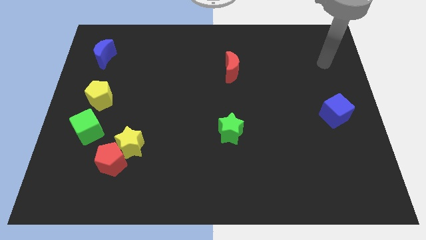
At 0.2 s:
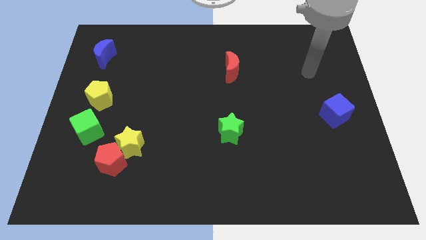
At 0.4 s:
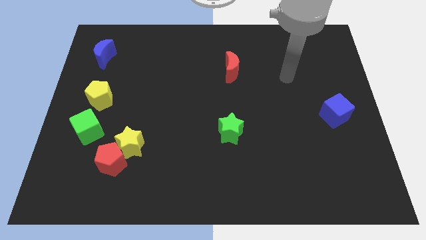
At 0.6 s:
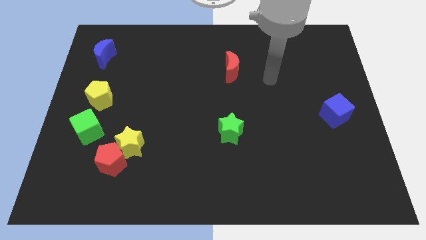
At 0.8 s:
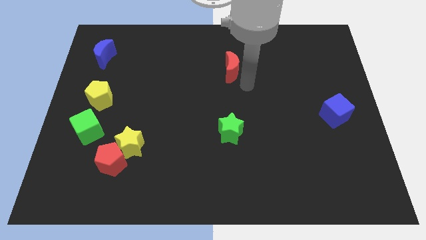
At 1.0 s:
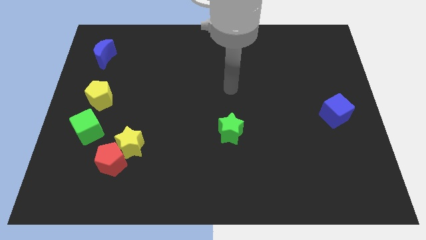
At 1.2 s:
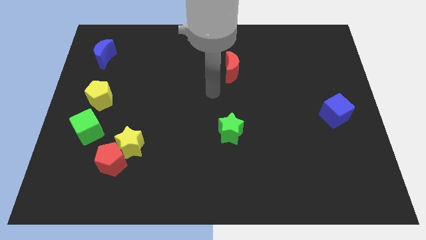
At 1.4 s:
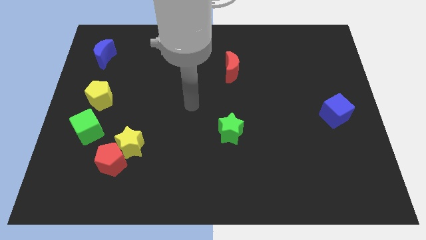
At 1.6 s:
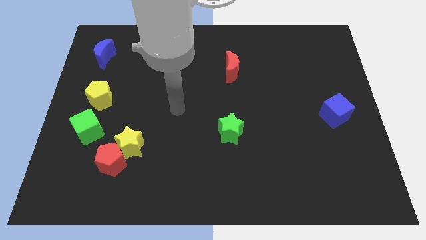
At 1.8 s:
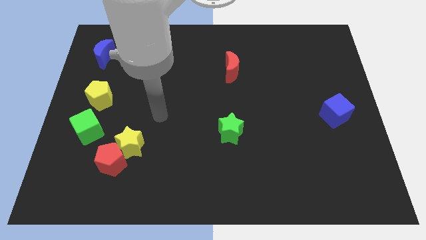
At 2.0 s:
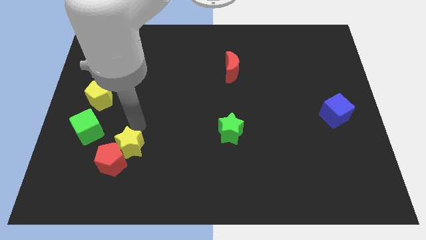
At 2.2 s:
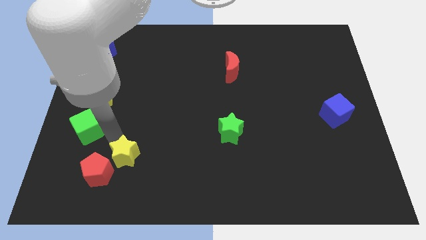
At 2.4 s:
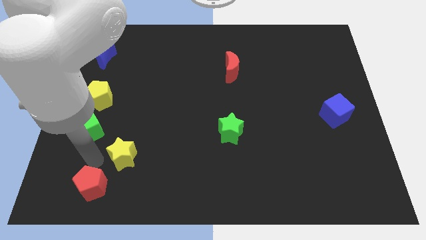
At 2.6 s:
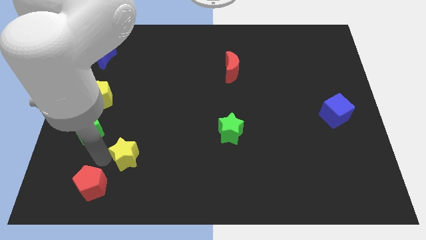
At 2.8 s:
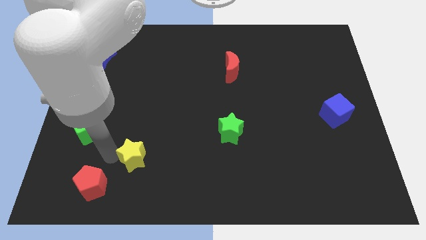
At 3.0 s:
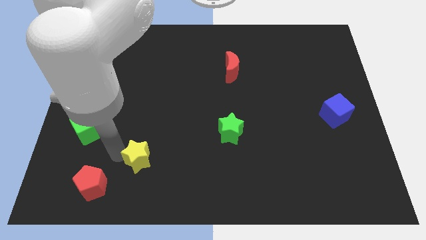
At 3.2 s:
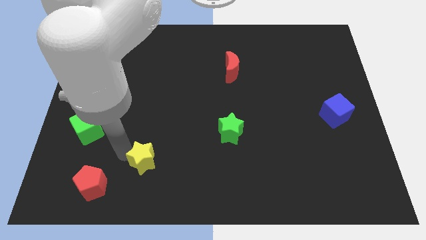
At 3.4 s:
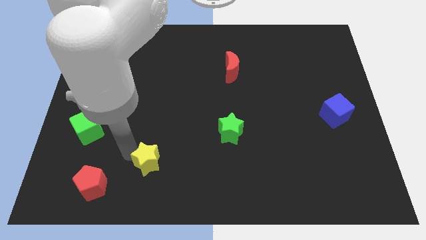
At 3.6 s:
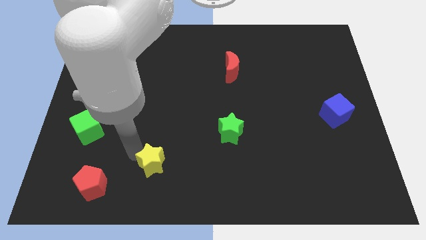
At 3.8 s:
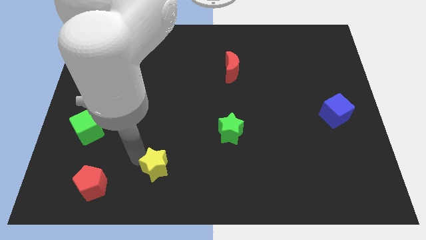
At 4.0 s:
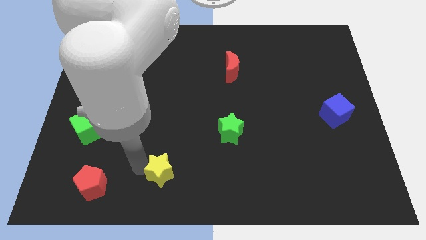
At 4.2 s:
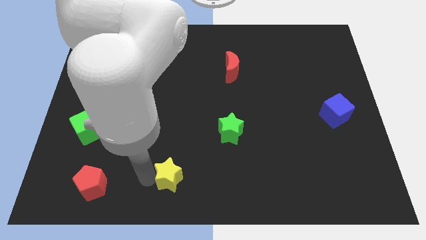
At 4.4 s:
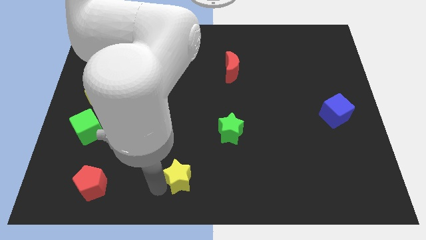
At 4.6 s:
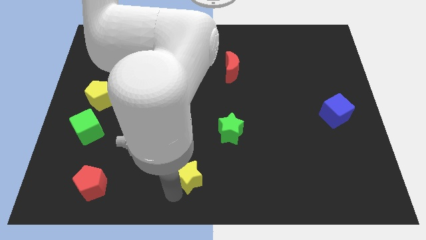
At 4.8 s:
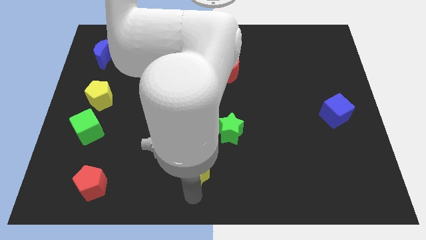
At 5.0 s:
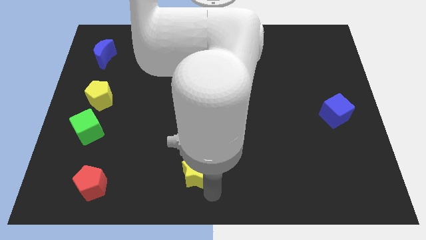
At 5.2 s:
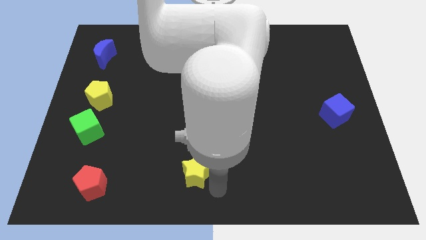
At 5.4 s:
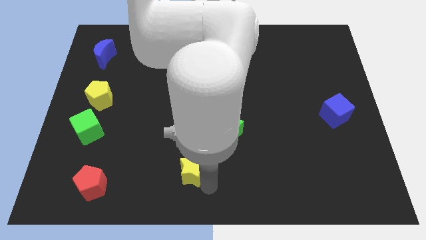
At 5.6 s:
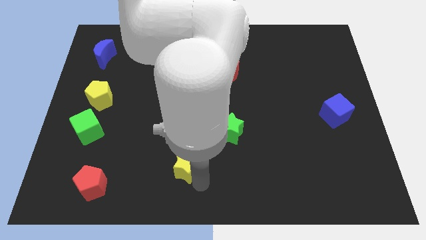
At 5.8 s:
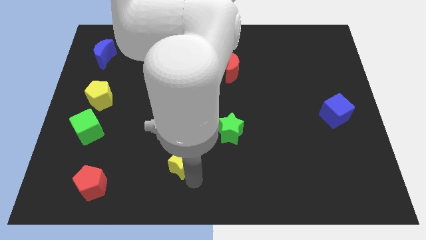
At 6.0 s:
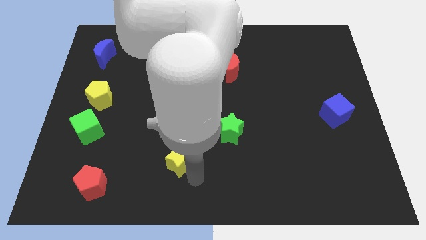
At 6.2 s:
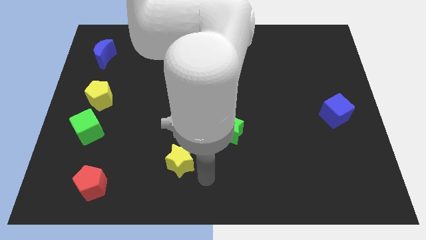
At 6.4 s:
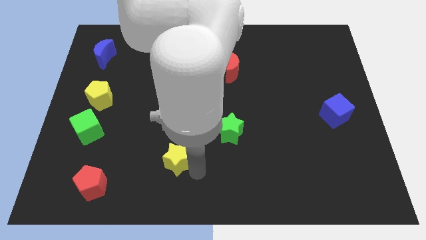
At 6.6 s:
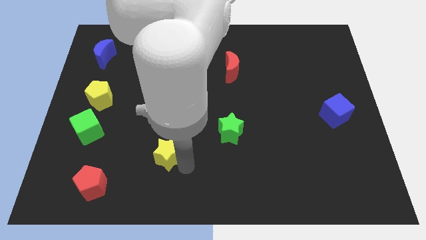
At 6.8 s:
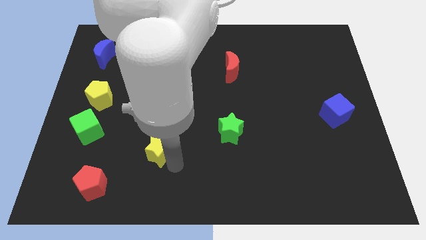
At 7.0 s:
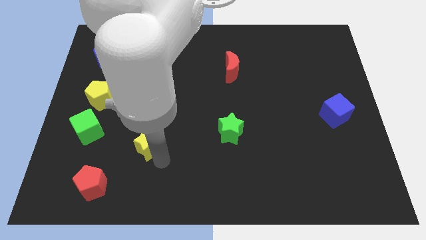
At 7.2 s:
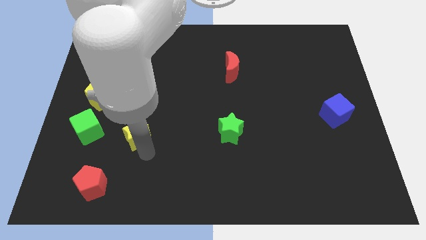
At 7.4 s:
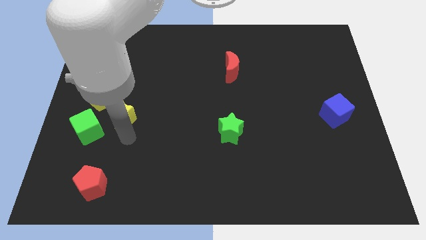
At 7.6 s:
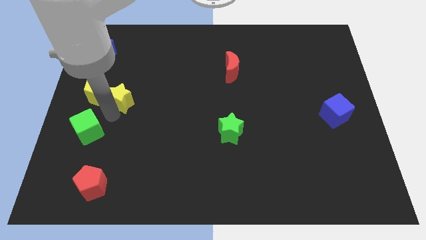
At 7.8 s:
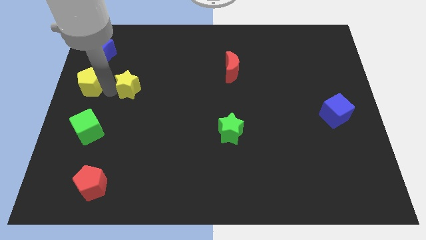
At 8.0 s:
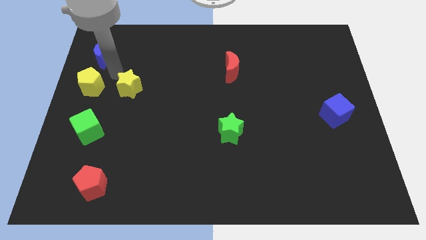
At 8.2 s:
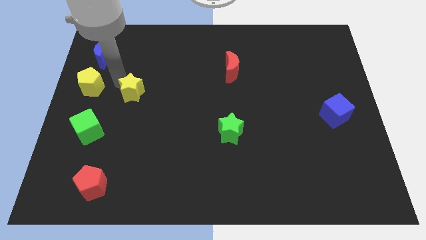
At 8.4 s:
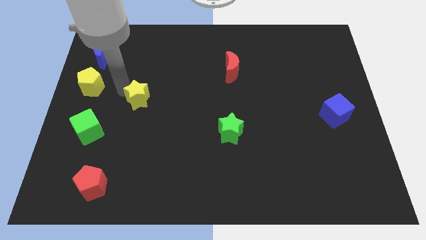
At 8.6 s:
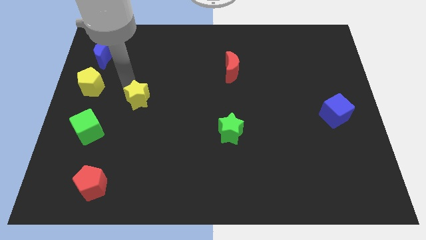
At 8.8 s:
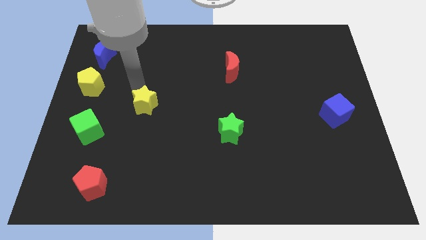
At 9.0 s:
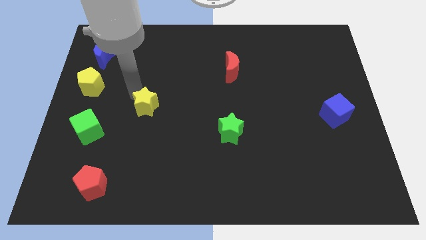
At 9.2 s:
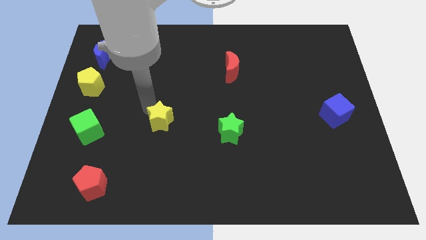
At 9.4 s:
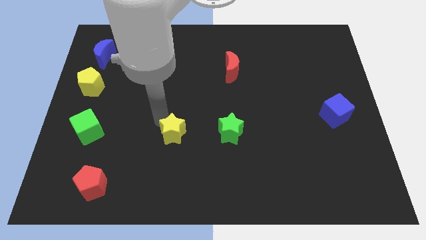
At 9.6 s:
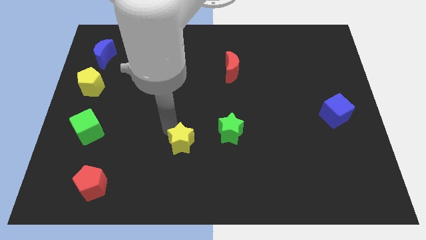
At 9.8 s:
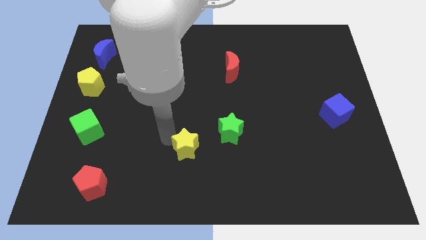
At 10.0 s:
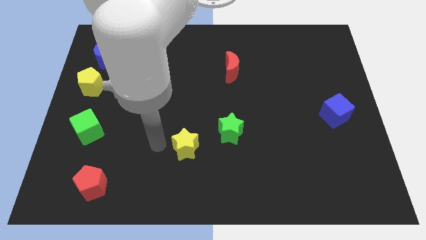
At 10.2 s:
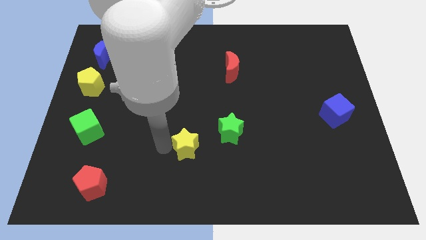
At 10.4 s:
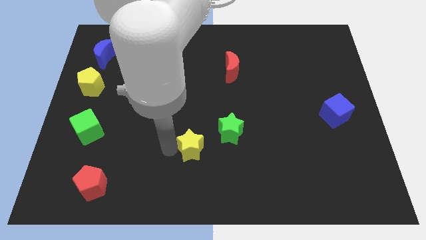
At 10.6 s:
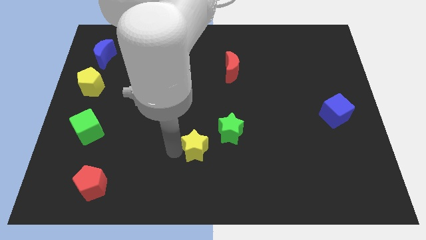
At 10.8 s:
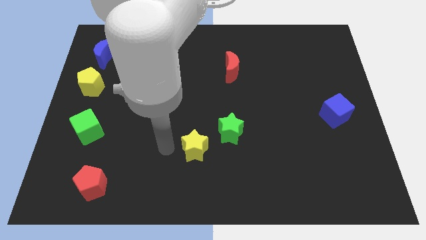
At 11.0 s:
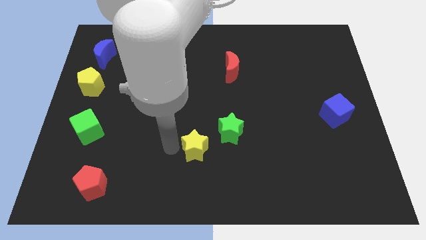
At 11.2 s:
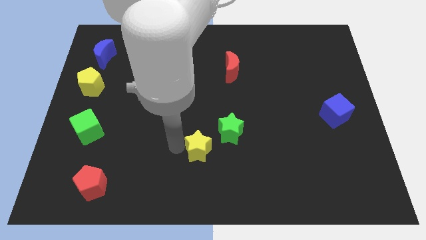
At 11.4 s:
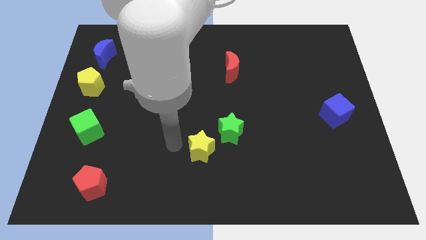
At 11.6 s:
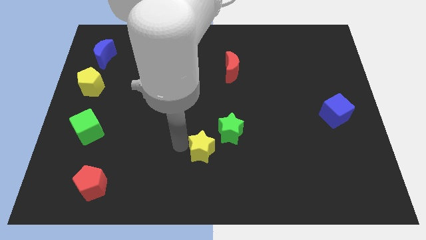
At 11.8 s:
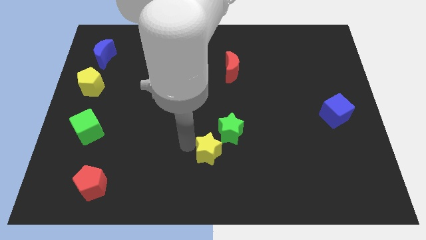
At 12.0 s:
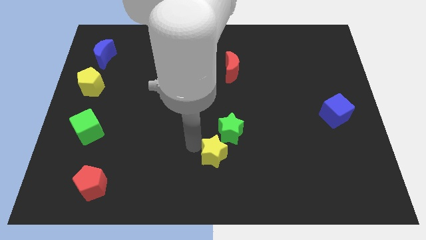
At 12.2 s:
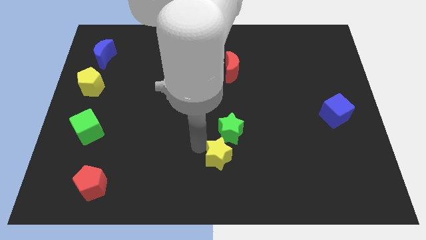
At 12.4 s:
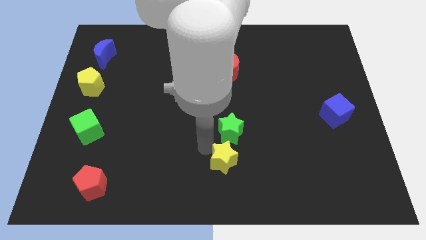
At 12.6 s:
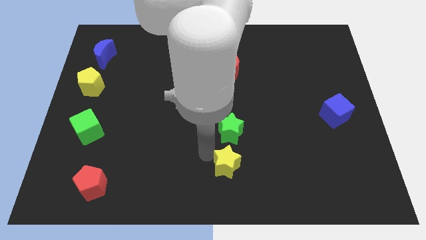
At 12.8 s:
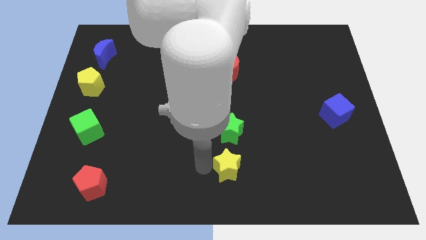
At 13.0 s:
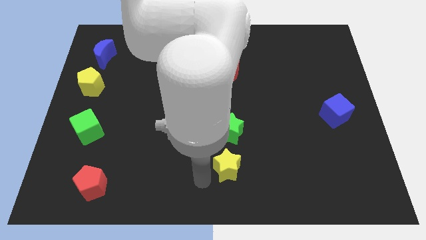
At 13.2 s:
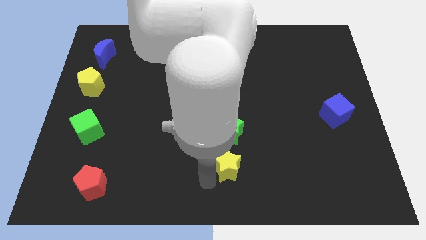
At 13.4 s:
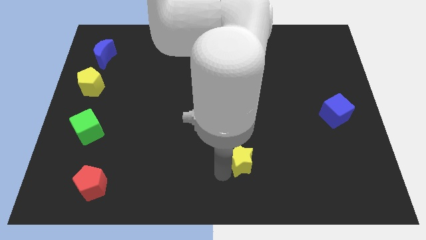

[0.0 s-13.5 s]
push the yellow star to the bottom right side of the green star

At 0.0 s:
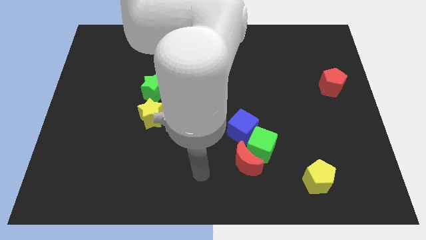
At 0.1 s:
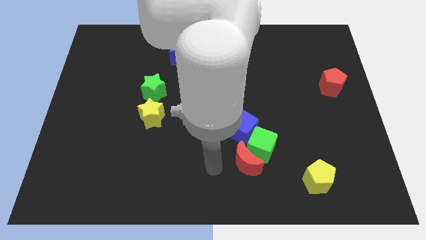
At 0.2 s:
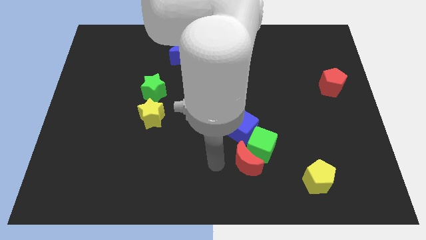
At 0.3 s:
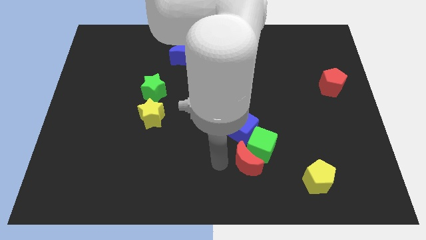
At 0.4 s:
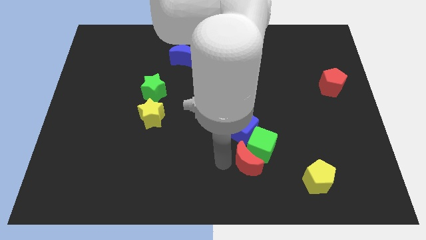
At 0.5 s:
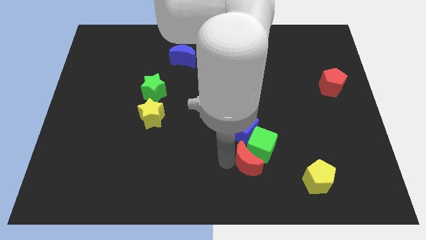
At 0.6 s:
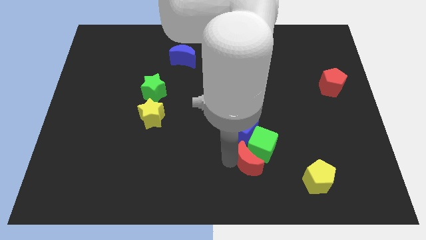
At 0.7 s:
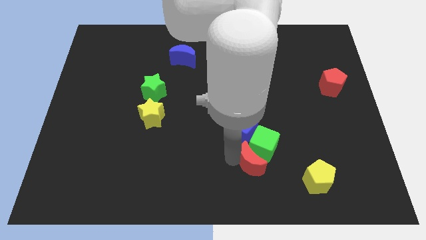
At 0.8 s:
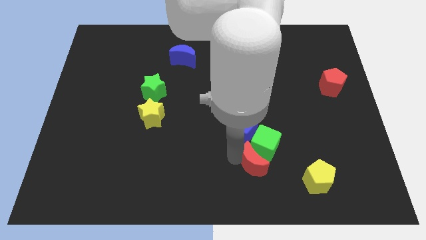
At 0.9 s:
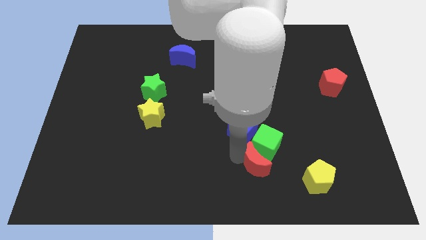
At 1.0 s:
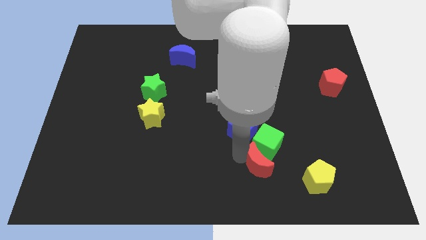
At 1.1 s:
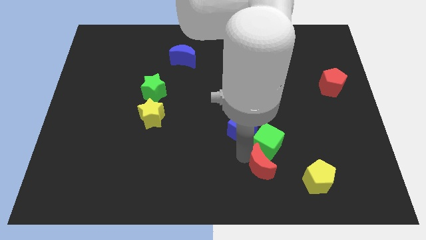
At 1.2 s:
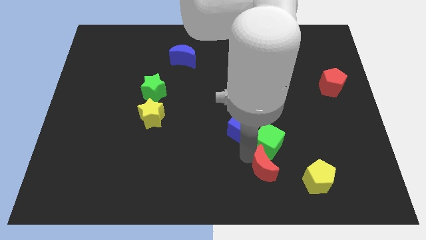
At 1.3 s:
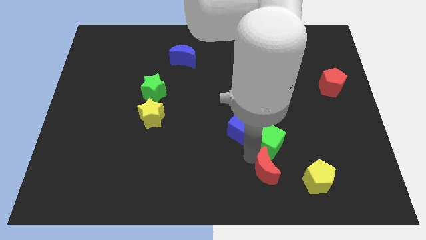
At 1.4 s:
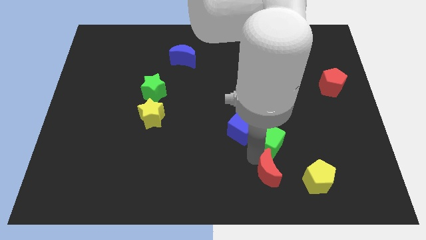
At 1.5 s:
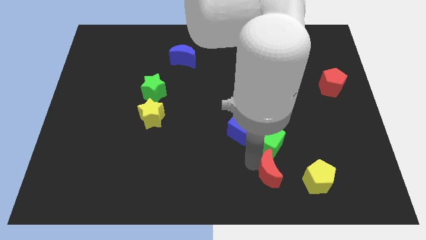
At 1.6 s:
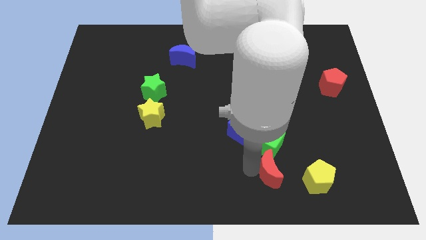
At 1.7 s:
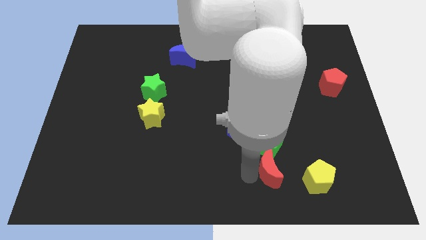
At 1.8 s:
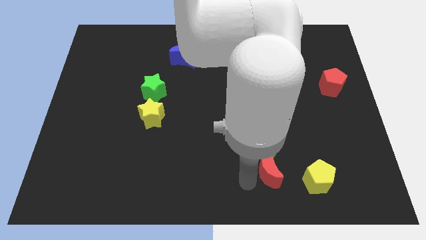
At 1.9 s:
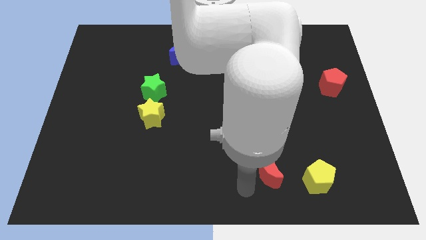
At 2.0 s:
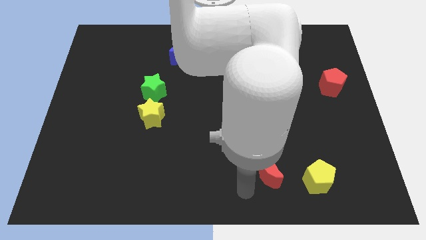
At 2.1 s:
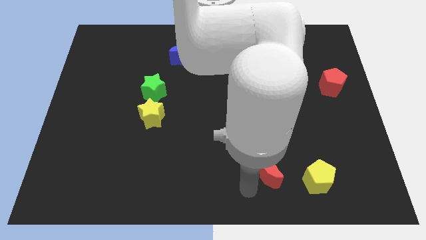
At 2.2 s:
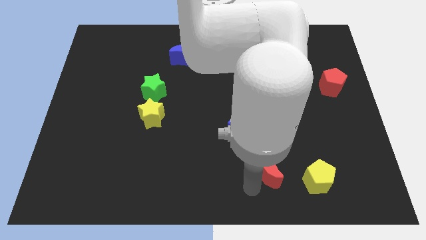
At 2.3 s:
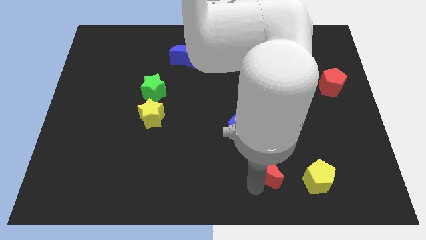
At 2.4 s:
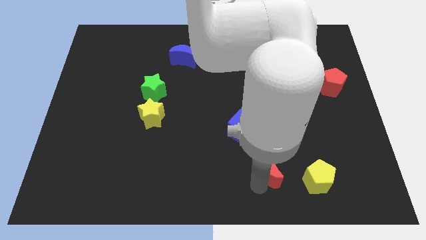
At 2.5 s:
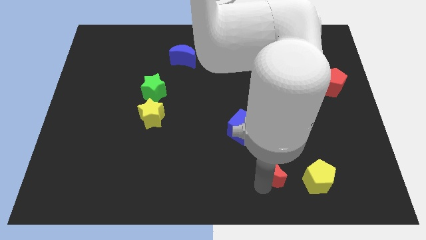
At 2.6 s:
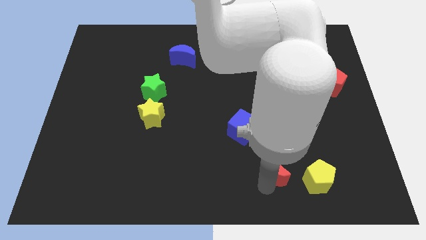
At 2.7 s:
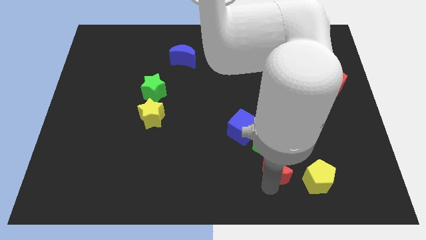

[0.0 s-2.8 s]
move the red moon diagonally up and to the left of the yellow pentagon
